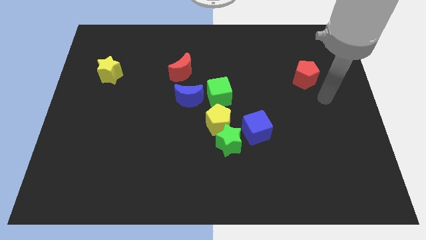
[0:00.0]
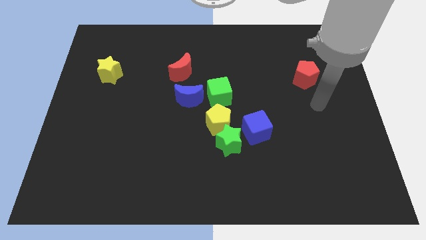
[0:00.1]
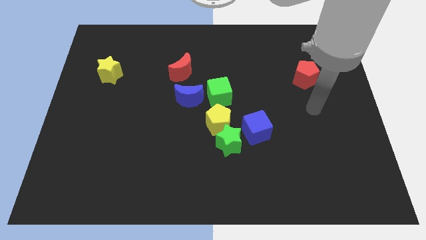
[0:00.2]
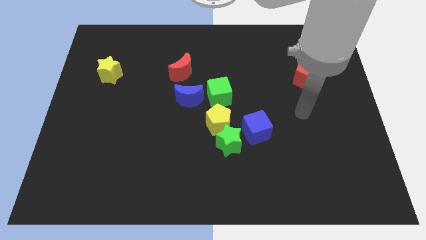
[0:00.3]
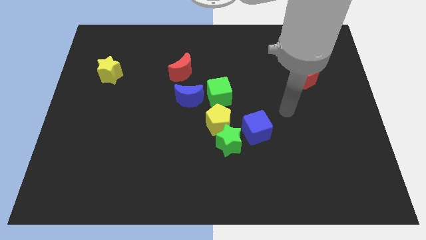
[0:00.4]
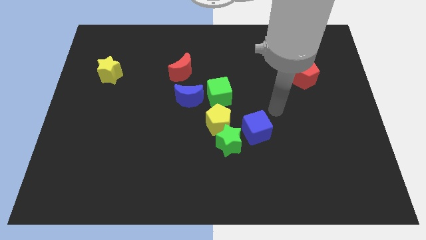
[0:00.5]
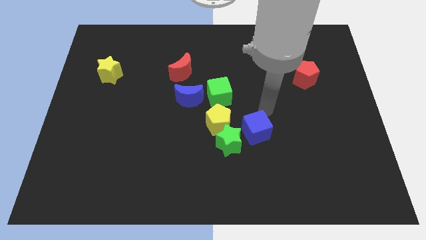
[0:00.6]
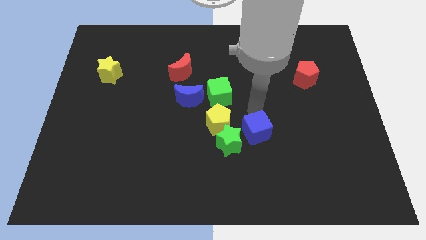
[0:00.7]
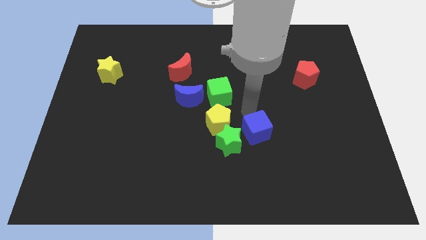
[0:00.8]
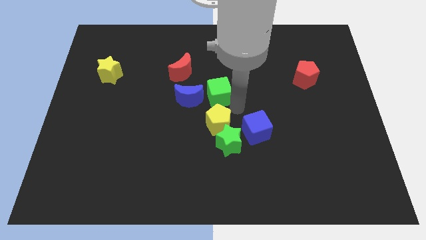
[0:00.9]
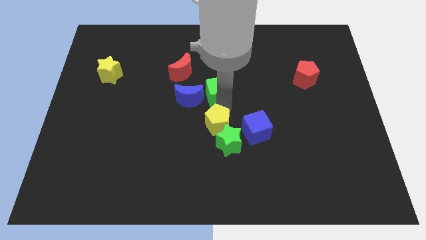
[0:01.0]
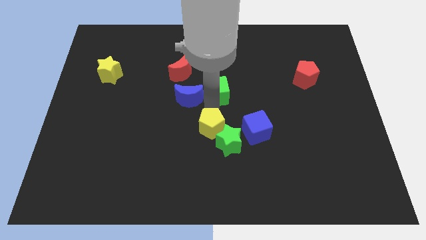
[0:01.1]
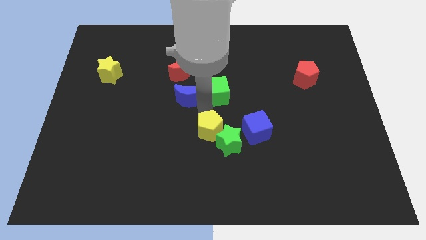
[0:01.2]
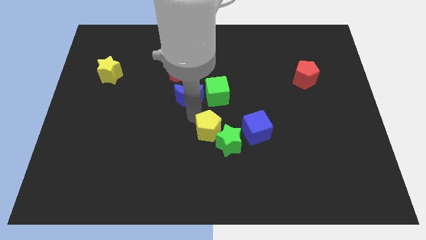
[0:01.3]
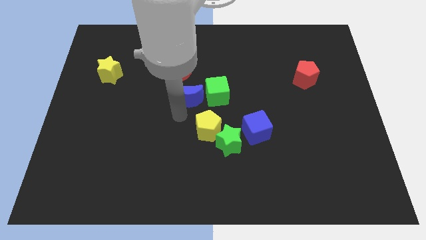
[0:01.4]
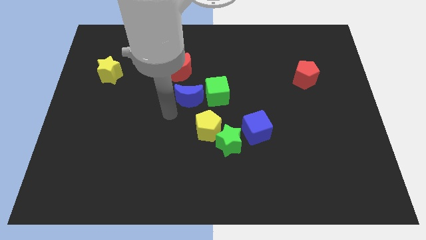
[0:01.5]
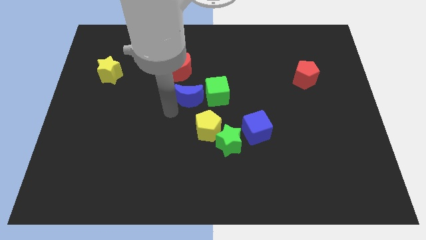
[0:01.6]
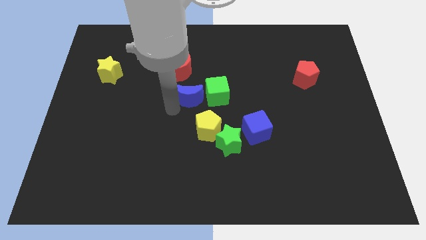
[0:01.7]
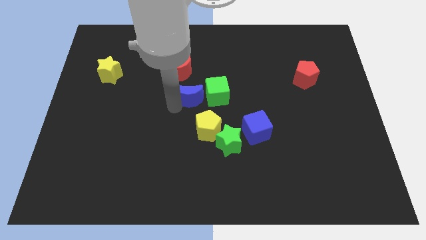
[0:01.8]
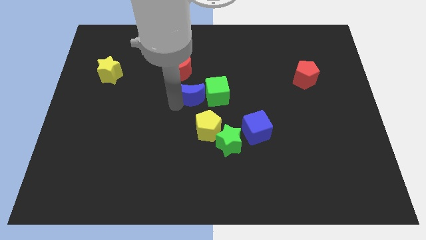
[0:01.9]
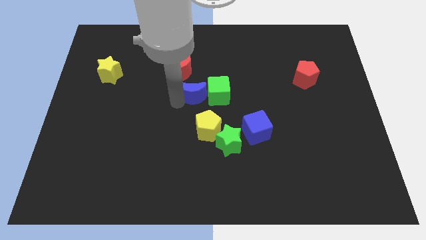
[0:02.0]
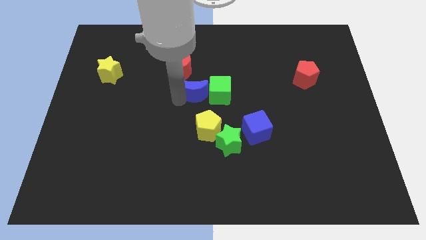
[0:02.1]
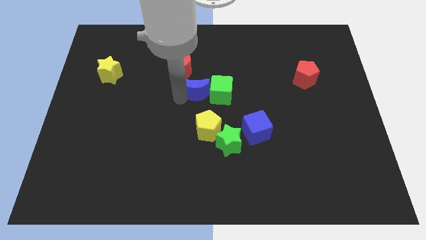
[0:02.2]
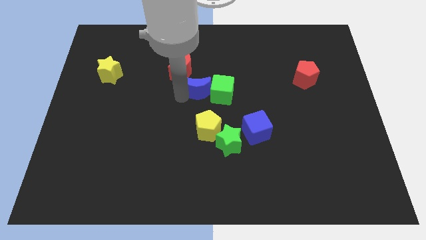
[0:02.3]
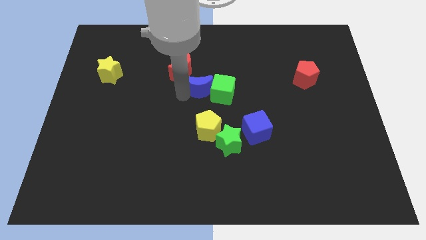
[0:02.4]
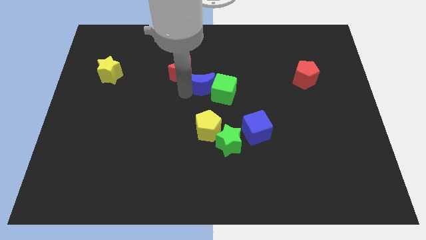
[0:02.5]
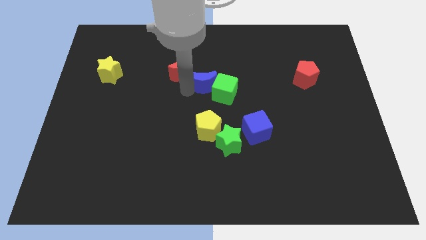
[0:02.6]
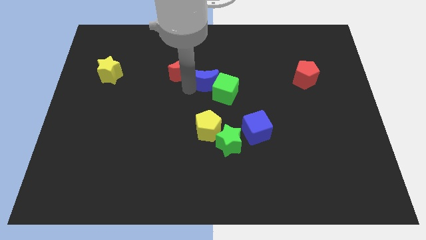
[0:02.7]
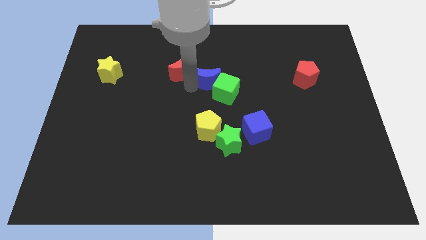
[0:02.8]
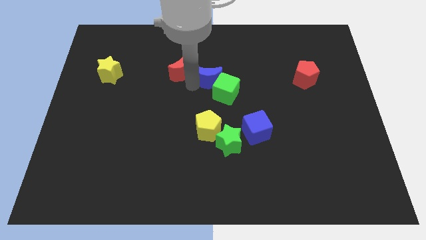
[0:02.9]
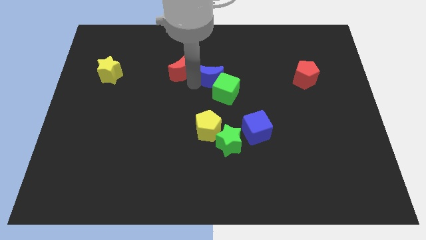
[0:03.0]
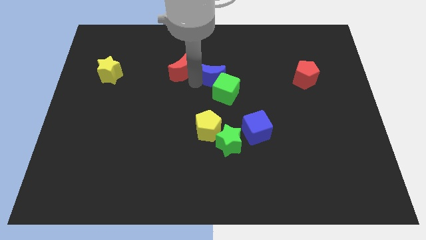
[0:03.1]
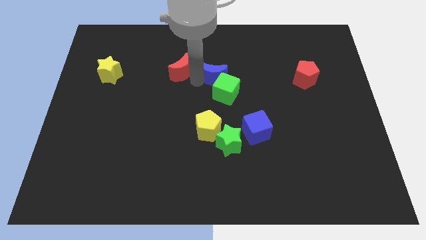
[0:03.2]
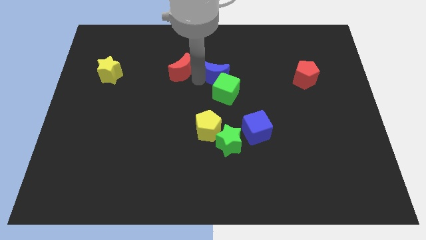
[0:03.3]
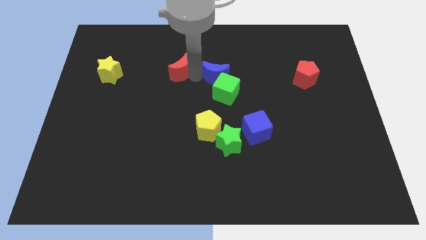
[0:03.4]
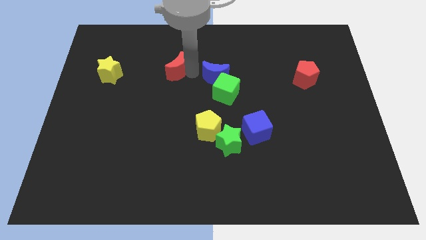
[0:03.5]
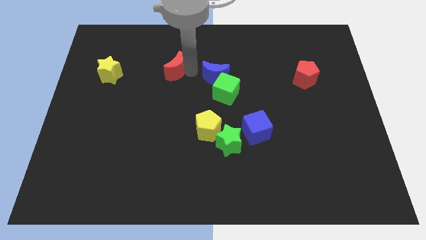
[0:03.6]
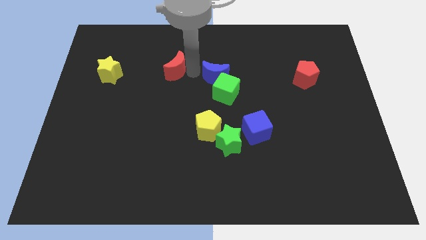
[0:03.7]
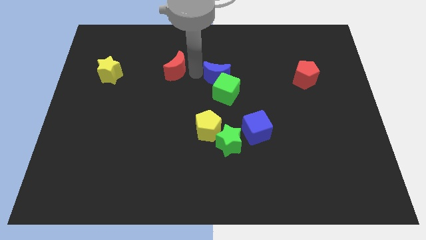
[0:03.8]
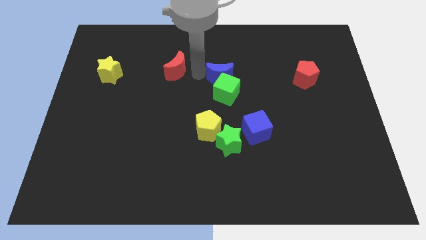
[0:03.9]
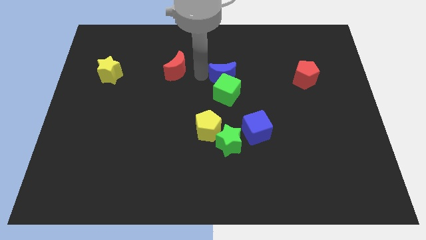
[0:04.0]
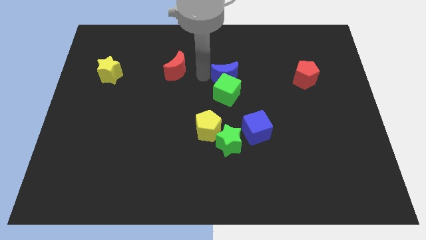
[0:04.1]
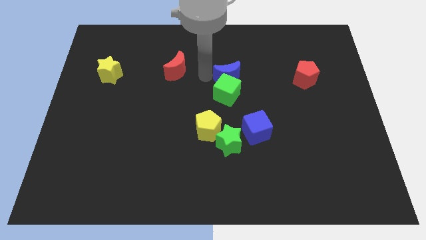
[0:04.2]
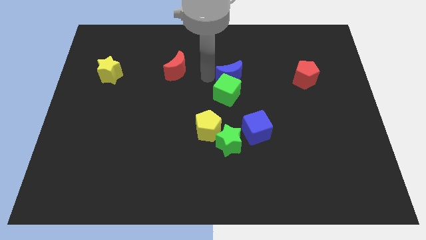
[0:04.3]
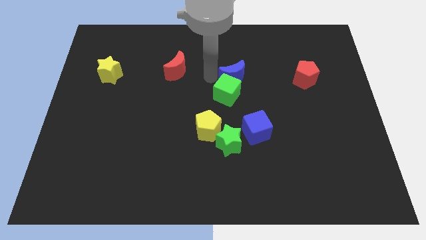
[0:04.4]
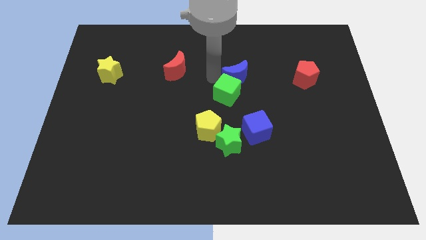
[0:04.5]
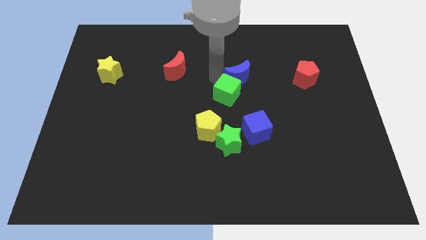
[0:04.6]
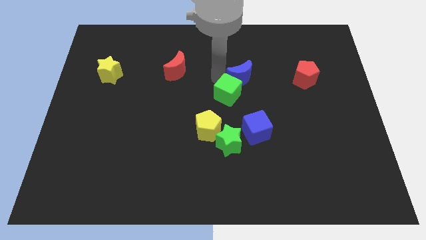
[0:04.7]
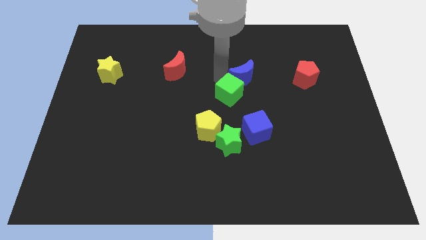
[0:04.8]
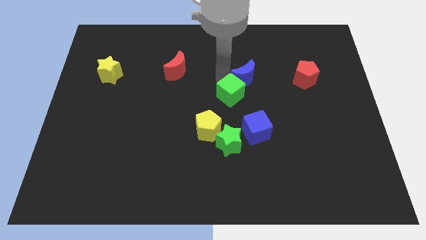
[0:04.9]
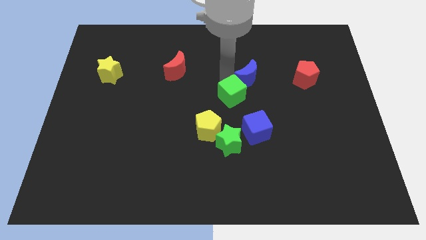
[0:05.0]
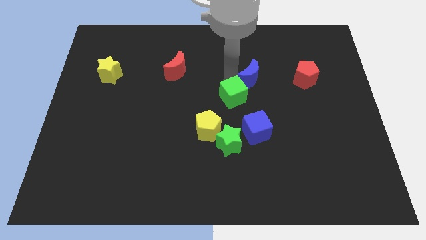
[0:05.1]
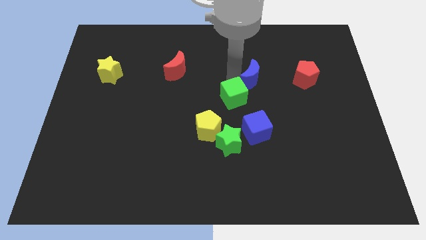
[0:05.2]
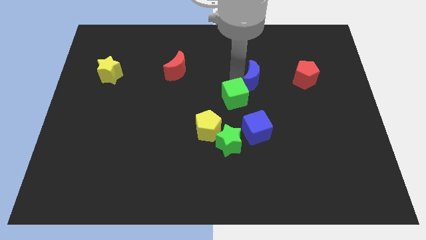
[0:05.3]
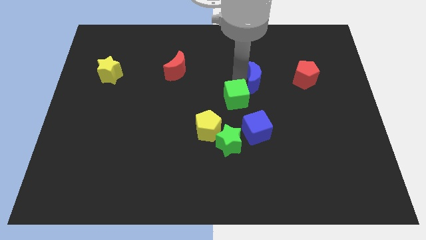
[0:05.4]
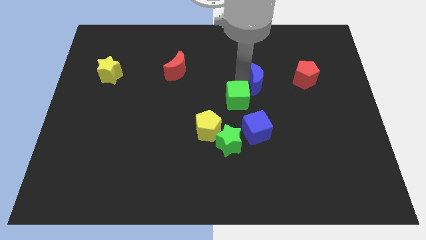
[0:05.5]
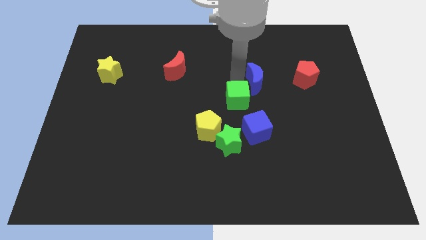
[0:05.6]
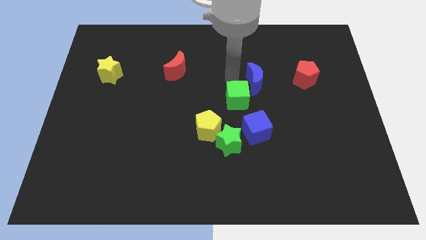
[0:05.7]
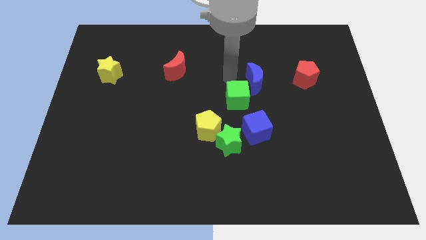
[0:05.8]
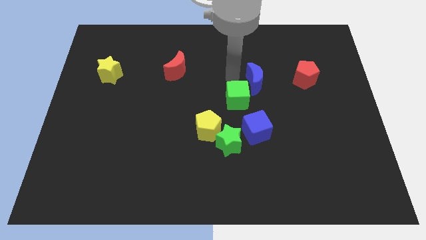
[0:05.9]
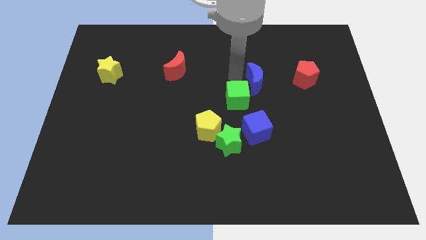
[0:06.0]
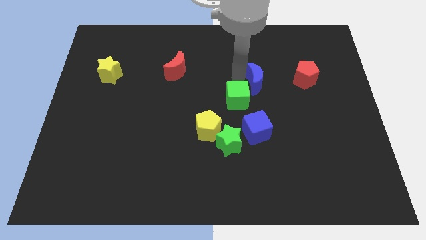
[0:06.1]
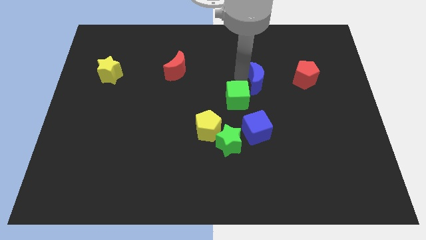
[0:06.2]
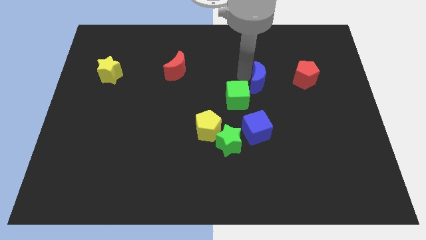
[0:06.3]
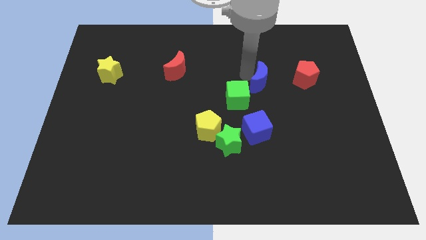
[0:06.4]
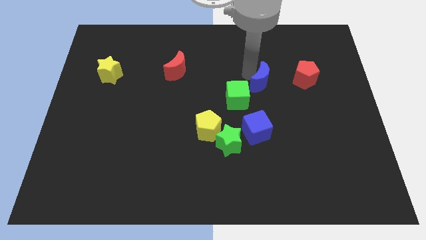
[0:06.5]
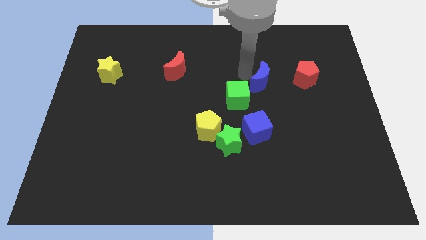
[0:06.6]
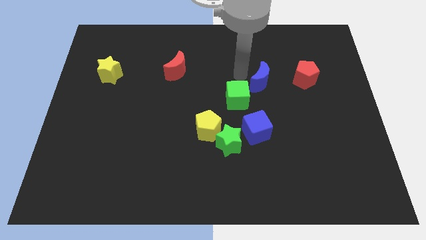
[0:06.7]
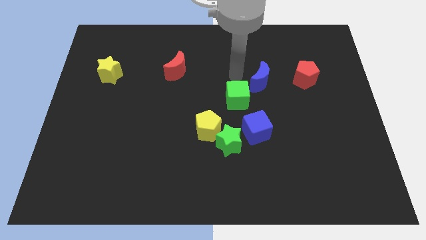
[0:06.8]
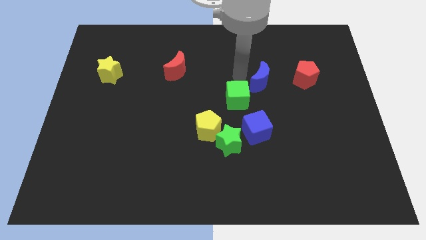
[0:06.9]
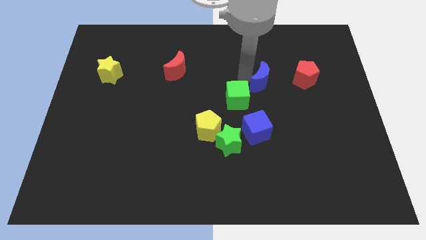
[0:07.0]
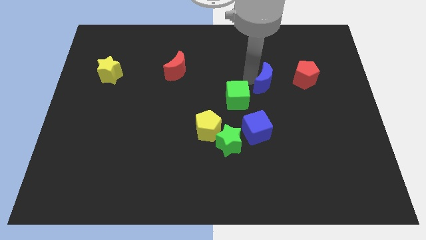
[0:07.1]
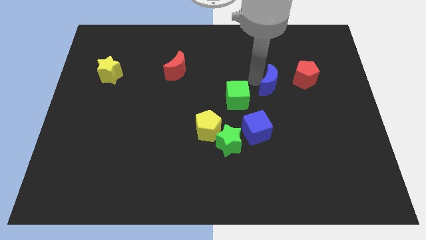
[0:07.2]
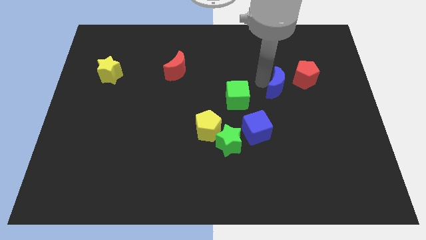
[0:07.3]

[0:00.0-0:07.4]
push the blue moon to the right

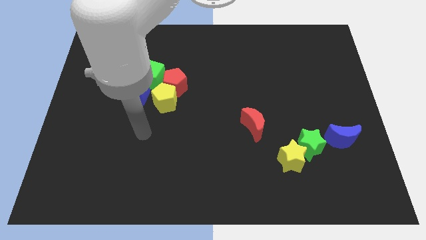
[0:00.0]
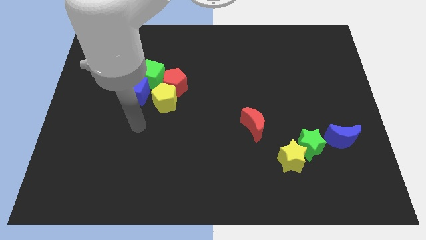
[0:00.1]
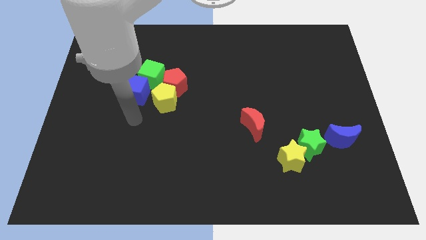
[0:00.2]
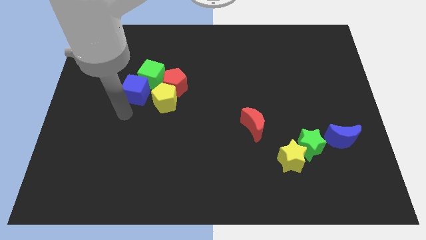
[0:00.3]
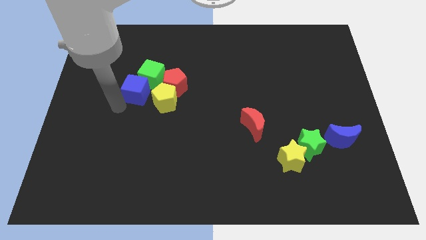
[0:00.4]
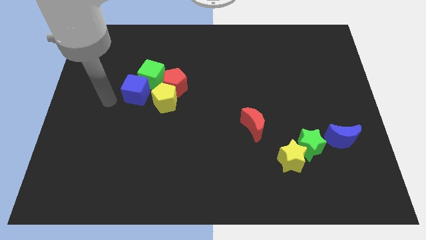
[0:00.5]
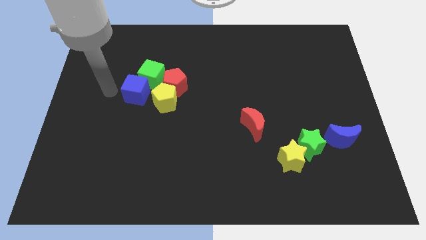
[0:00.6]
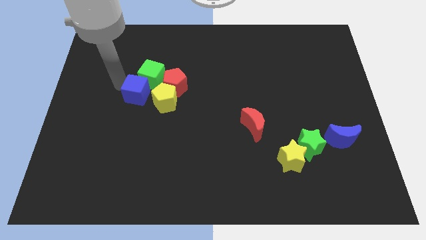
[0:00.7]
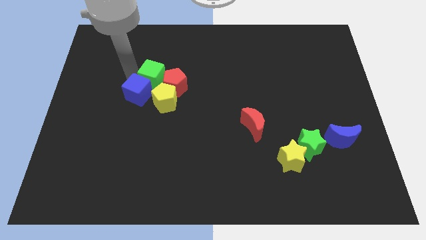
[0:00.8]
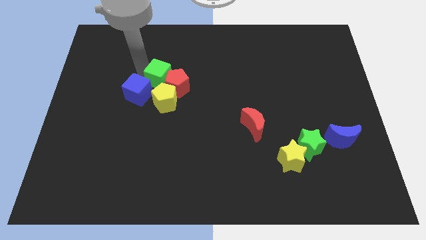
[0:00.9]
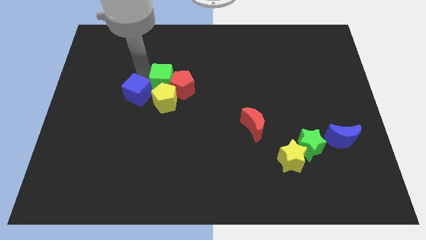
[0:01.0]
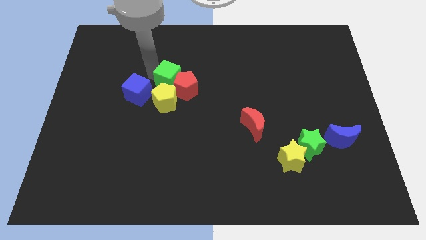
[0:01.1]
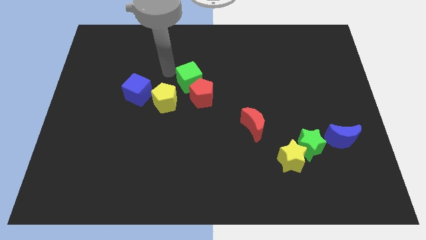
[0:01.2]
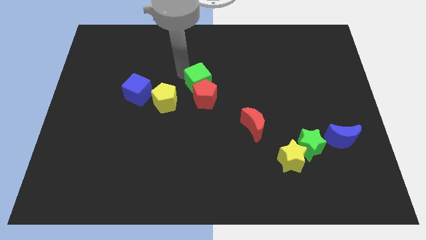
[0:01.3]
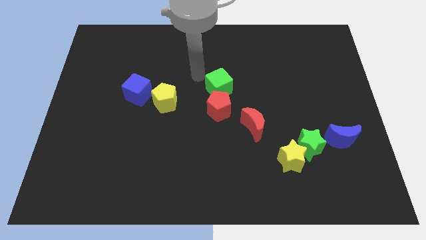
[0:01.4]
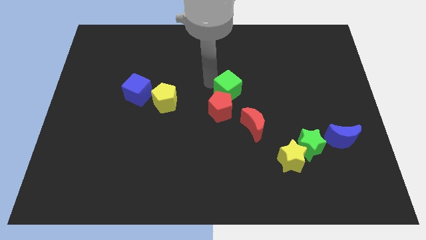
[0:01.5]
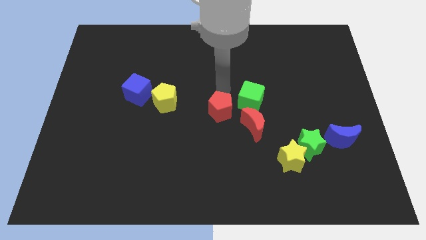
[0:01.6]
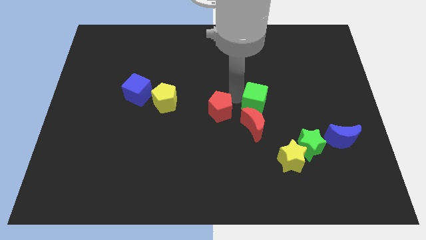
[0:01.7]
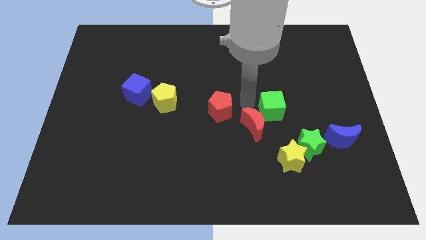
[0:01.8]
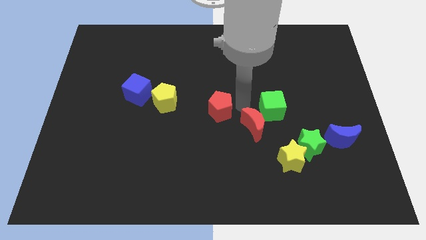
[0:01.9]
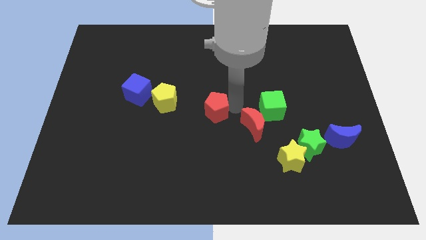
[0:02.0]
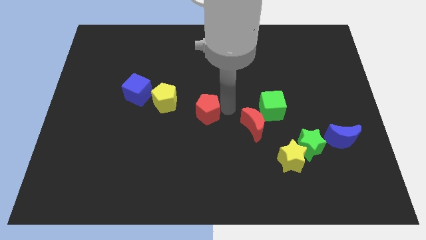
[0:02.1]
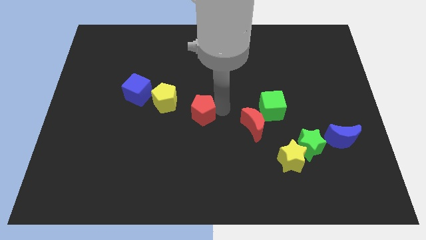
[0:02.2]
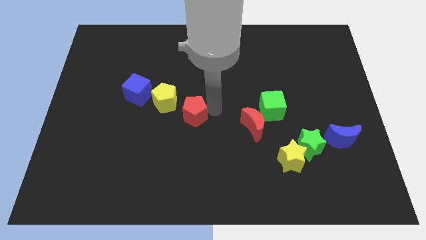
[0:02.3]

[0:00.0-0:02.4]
slightly push the red pentagon downwards
